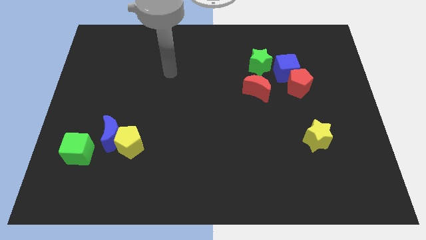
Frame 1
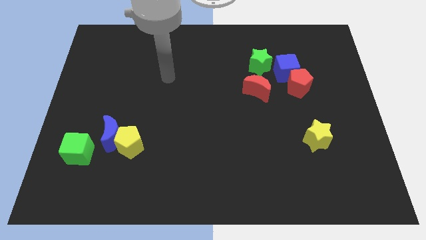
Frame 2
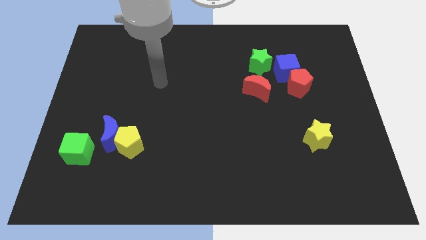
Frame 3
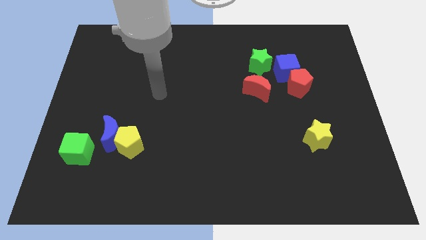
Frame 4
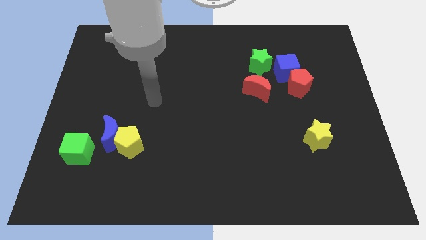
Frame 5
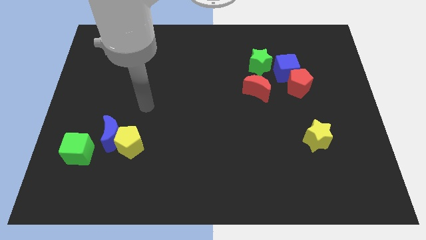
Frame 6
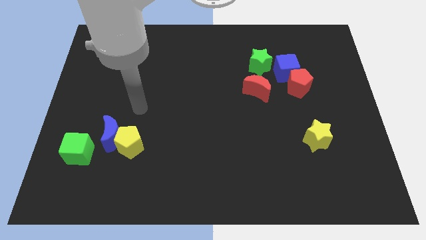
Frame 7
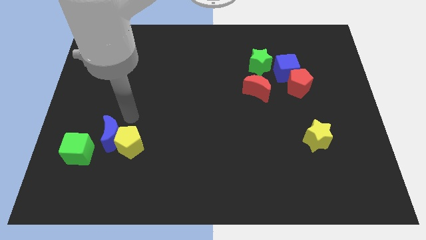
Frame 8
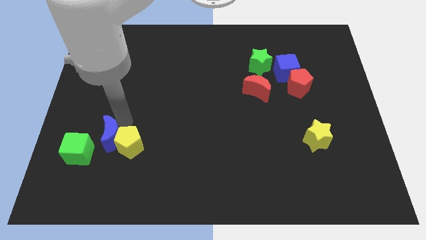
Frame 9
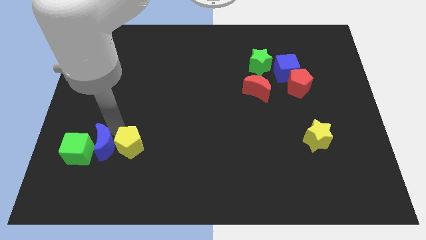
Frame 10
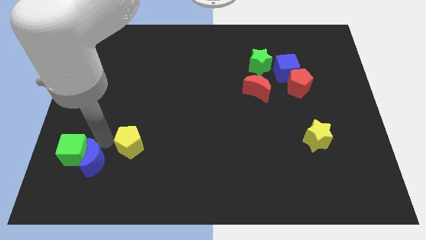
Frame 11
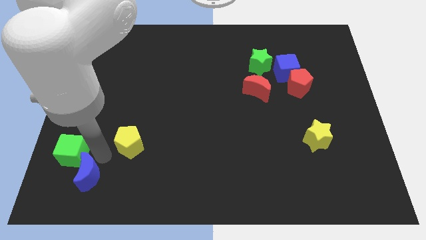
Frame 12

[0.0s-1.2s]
separate the yellow pentagon from the blue moon

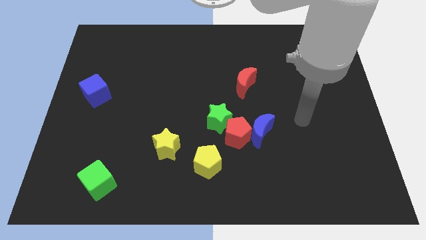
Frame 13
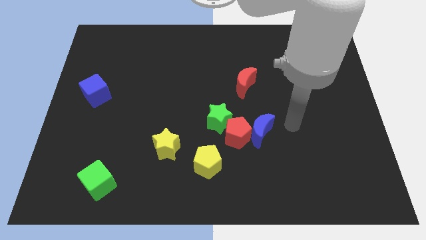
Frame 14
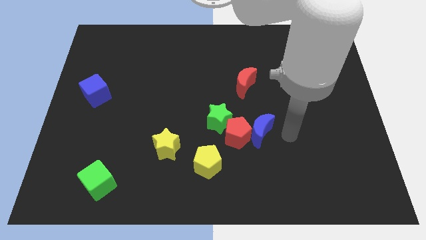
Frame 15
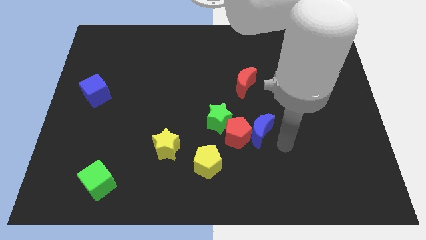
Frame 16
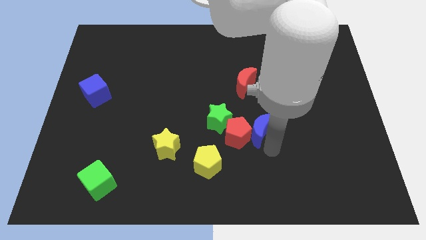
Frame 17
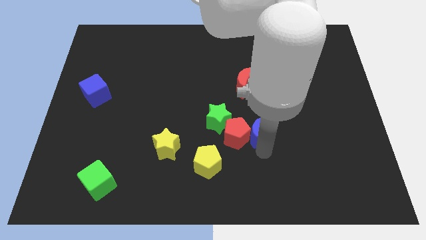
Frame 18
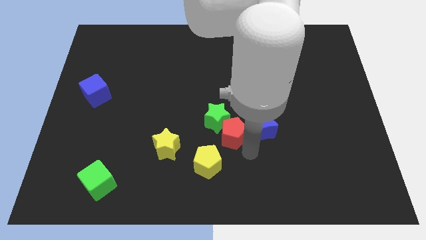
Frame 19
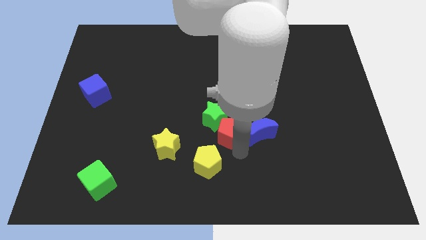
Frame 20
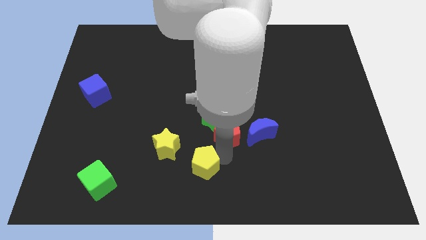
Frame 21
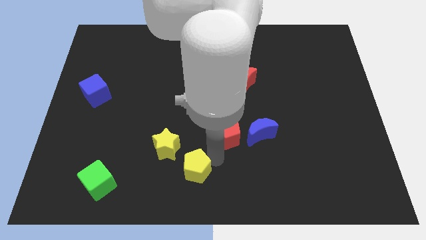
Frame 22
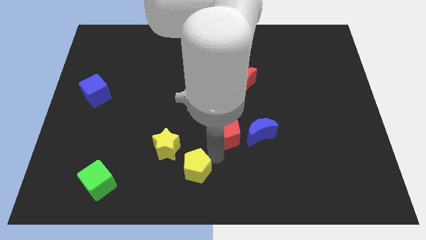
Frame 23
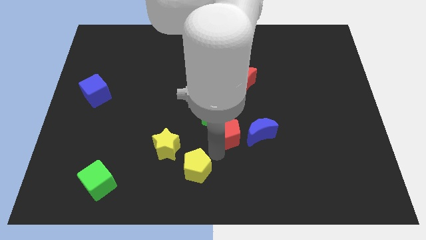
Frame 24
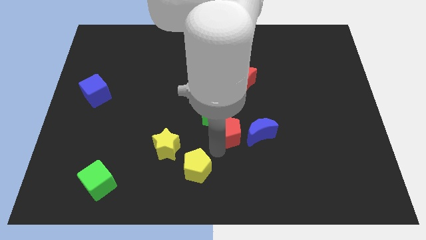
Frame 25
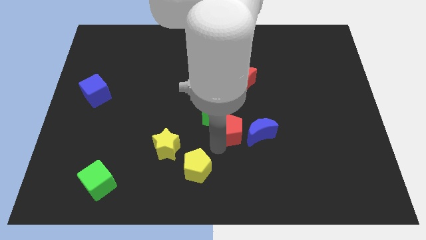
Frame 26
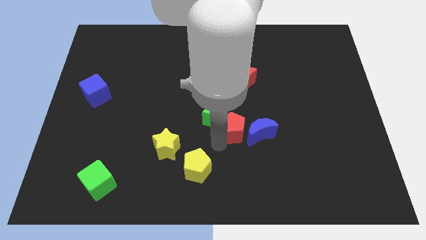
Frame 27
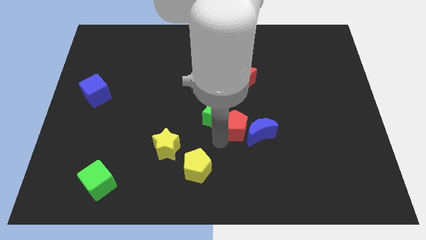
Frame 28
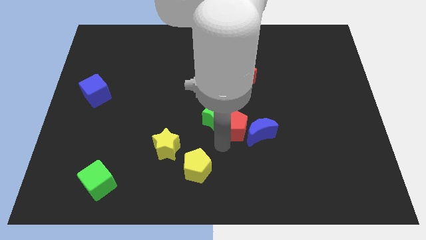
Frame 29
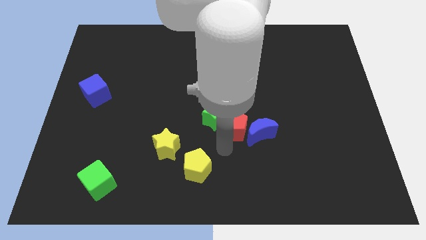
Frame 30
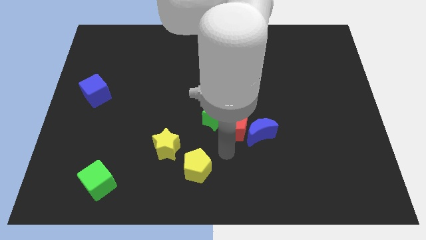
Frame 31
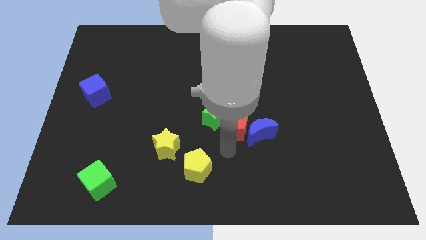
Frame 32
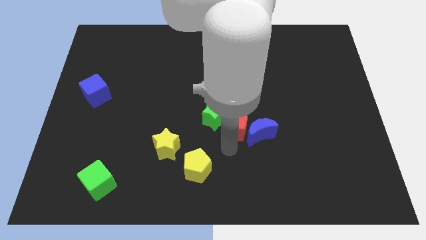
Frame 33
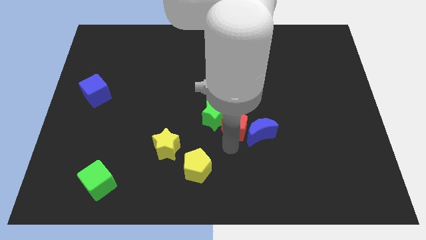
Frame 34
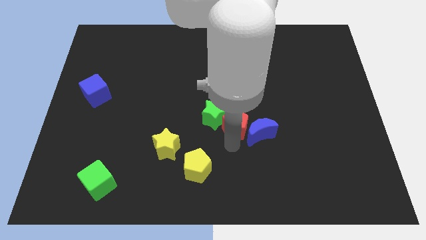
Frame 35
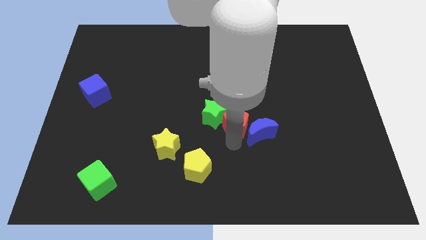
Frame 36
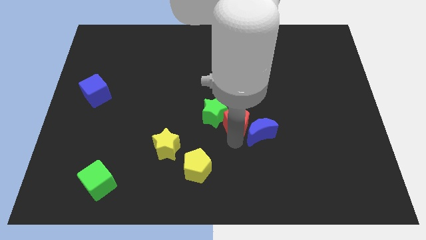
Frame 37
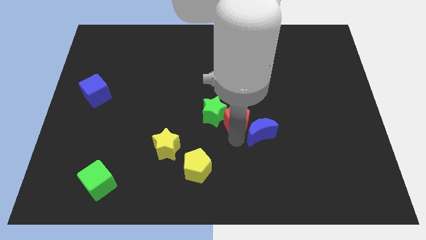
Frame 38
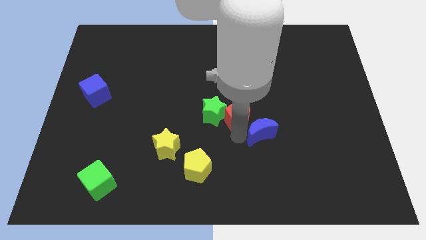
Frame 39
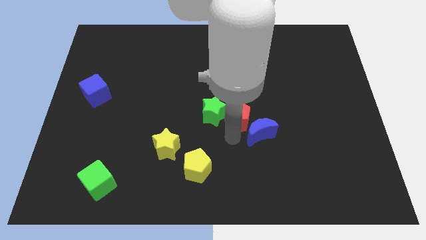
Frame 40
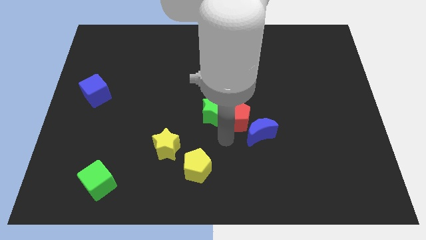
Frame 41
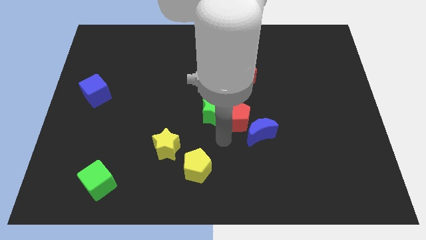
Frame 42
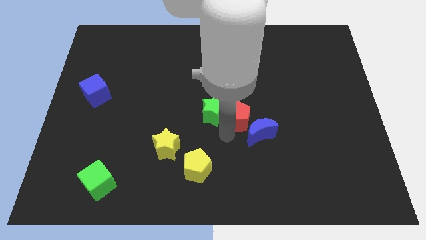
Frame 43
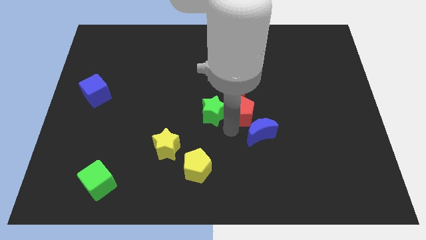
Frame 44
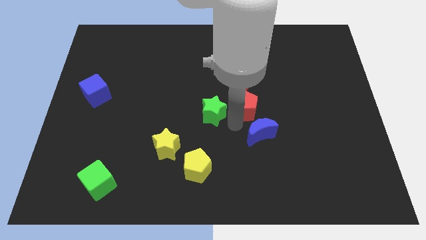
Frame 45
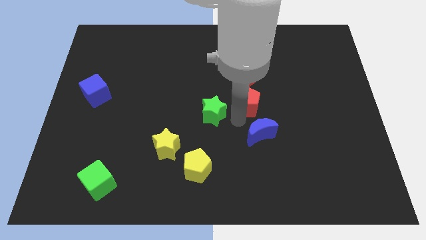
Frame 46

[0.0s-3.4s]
pull the red pentagon apart from the blue moon, green star, and yellow pentagon

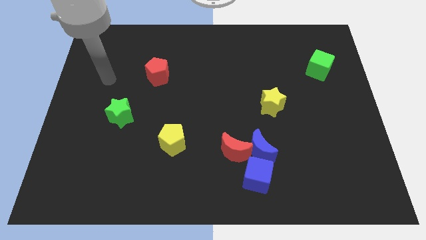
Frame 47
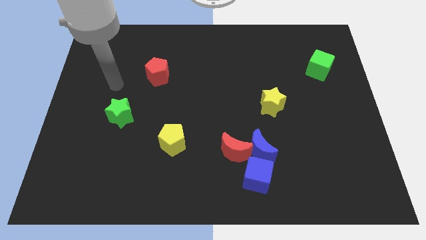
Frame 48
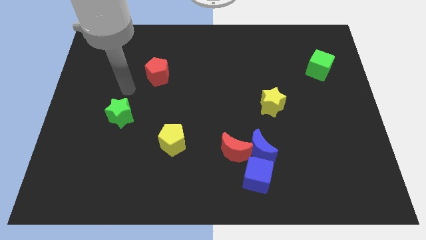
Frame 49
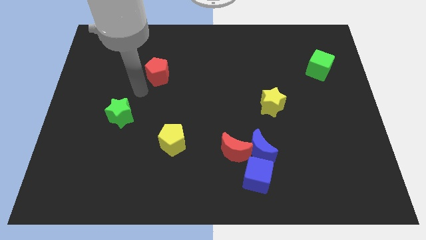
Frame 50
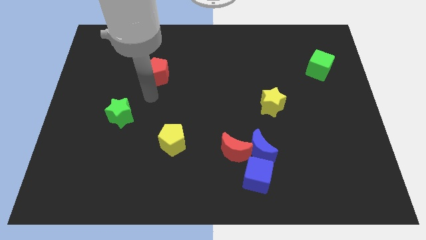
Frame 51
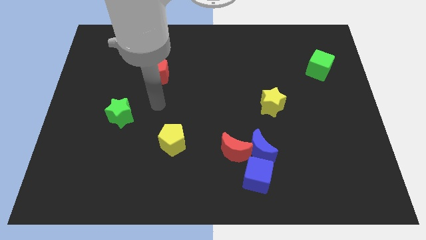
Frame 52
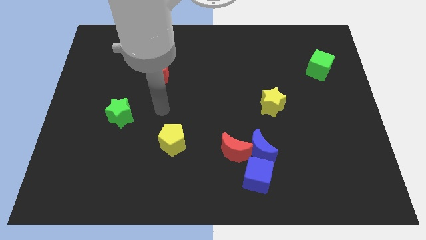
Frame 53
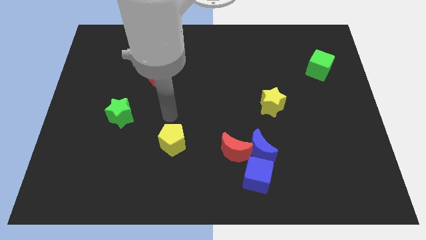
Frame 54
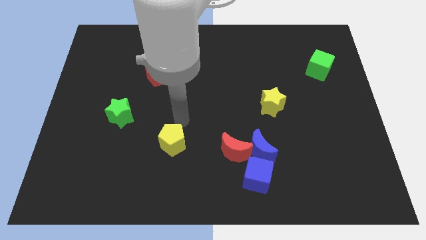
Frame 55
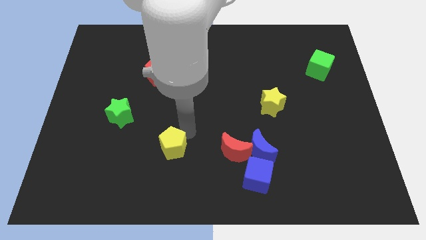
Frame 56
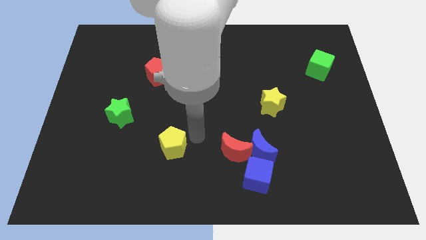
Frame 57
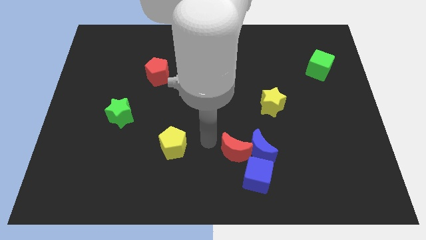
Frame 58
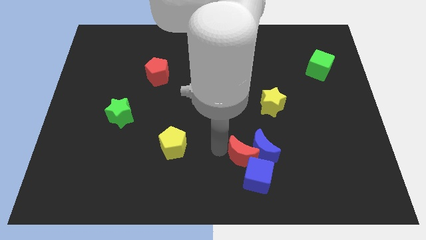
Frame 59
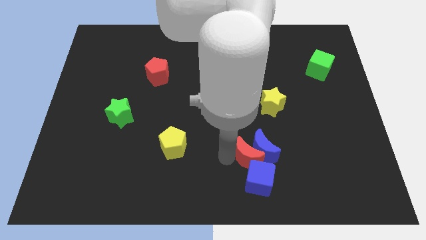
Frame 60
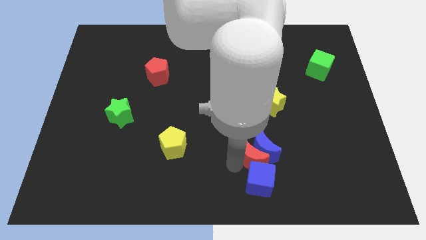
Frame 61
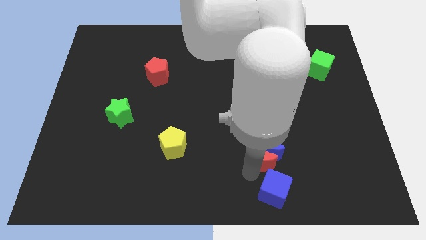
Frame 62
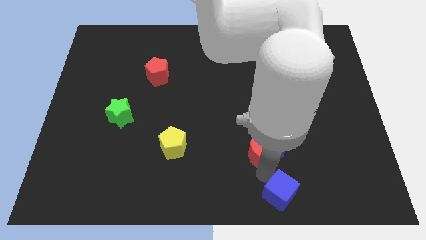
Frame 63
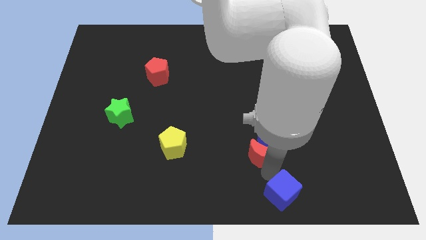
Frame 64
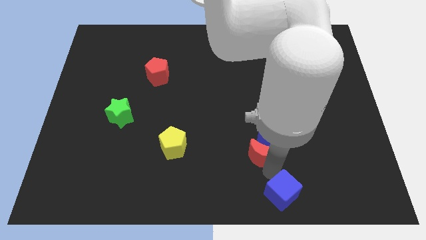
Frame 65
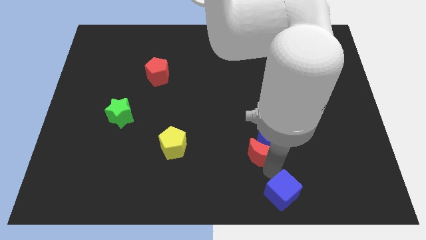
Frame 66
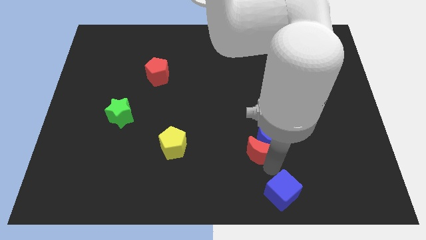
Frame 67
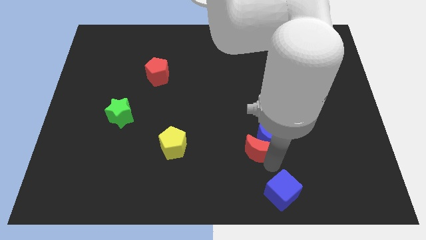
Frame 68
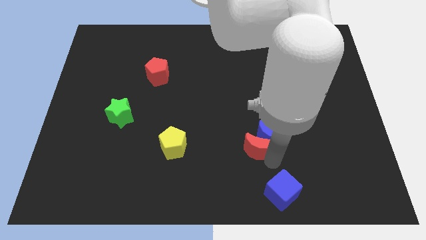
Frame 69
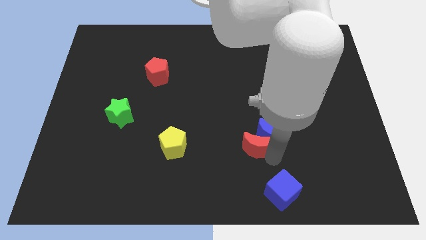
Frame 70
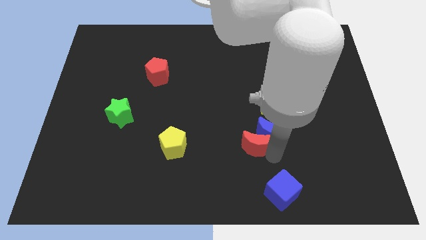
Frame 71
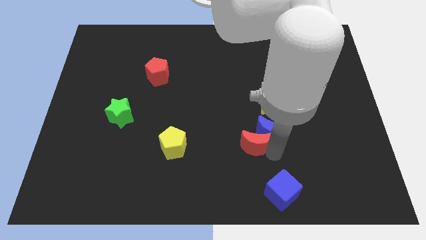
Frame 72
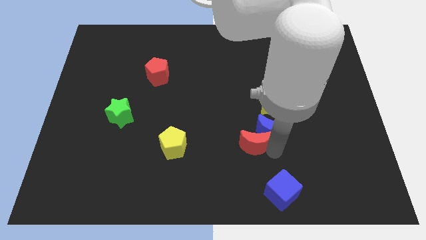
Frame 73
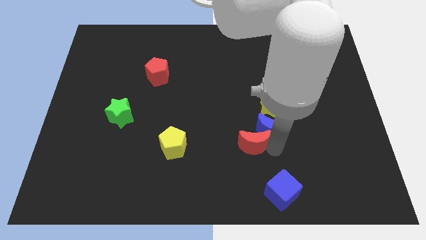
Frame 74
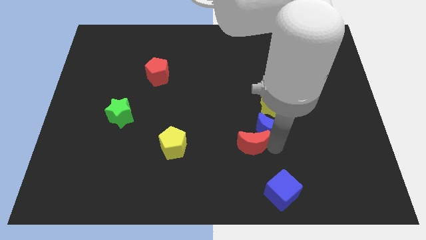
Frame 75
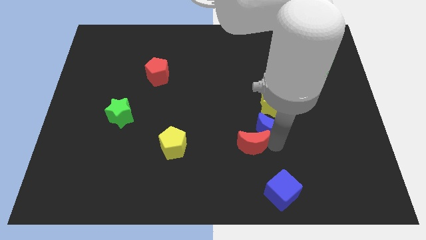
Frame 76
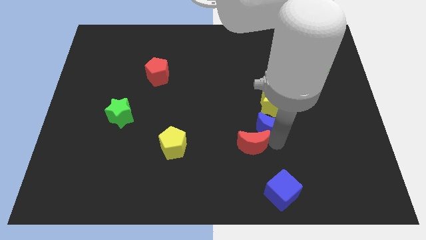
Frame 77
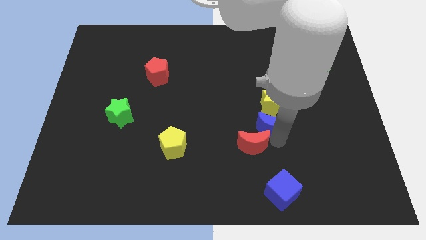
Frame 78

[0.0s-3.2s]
move the blue moon away from the red moon and blue cube

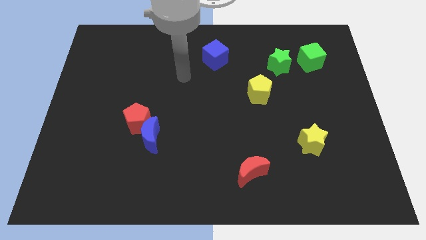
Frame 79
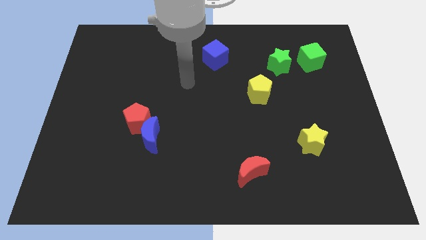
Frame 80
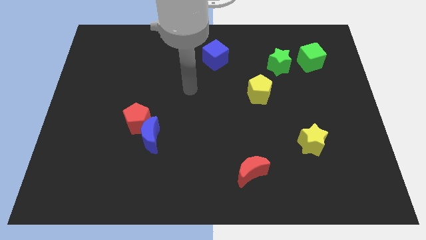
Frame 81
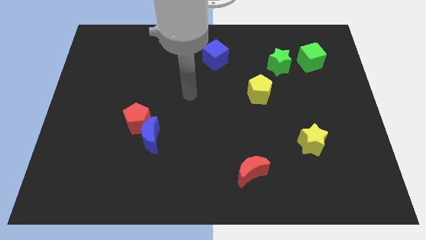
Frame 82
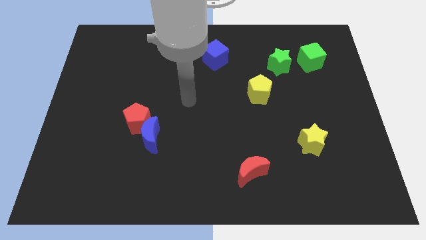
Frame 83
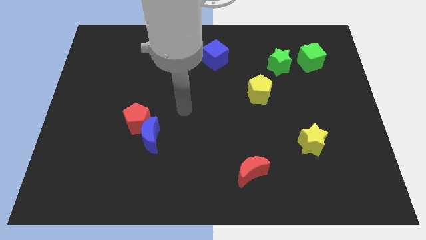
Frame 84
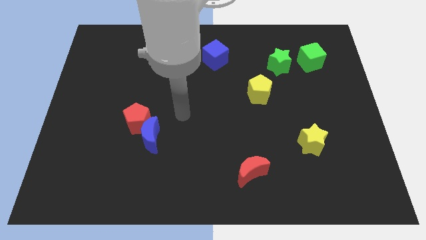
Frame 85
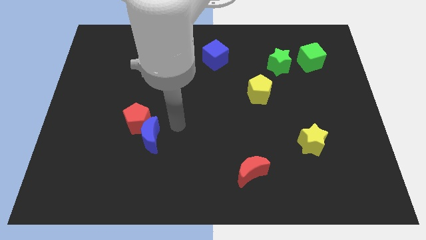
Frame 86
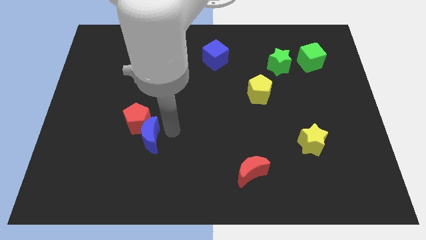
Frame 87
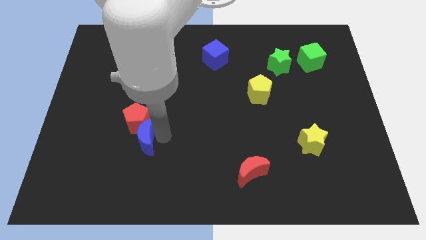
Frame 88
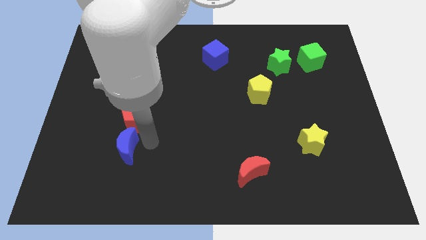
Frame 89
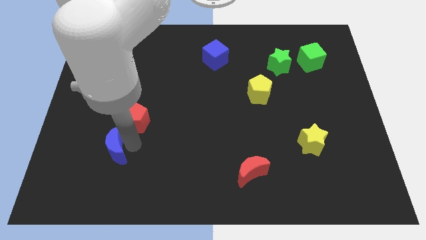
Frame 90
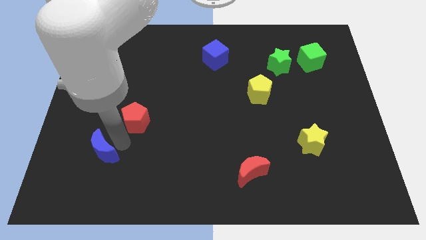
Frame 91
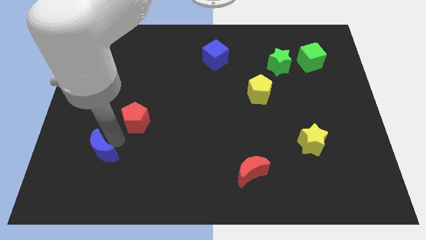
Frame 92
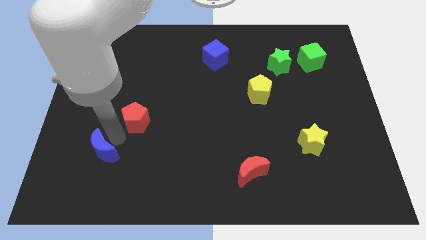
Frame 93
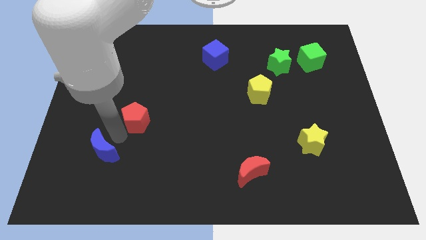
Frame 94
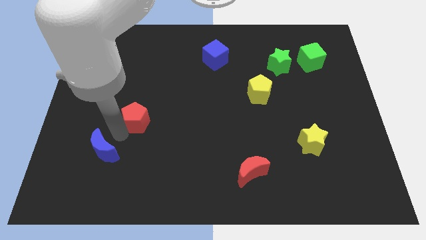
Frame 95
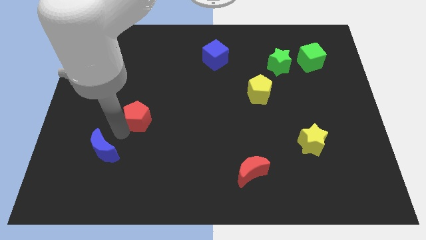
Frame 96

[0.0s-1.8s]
move the red pentagon away from the blue moon
